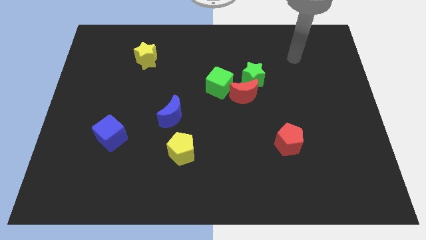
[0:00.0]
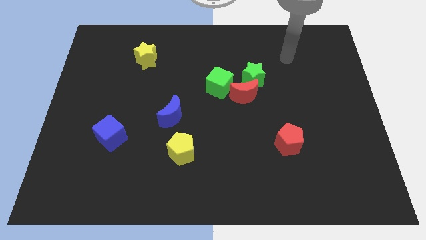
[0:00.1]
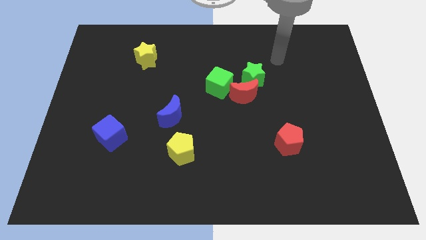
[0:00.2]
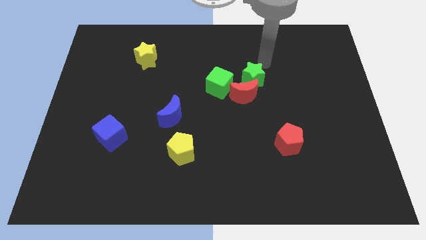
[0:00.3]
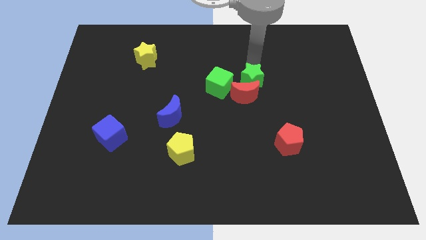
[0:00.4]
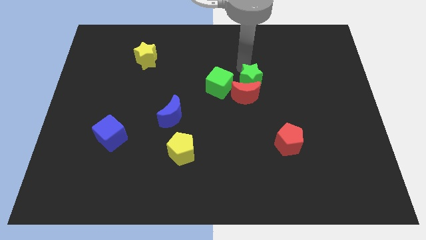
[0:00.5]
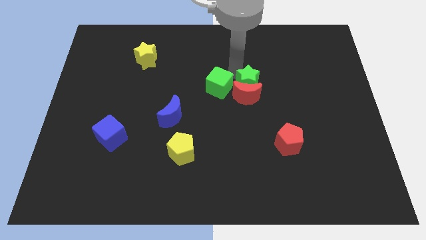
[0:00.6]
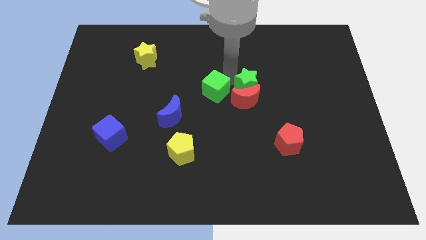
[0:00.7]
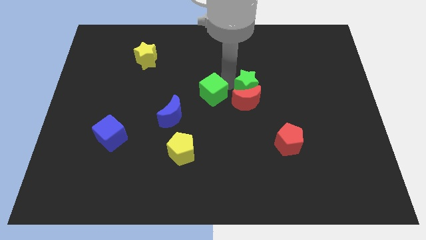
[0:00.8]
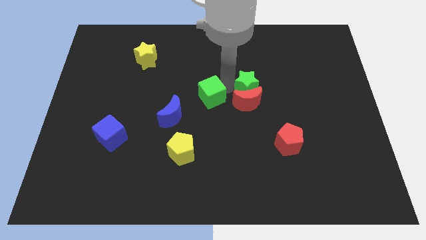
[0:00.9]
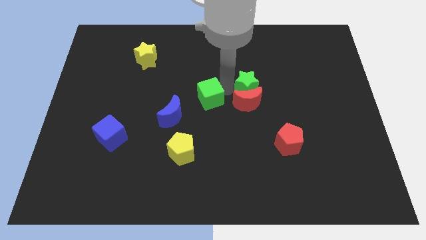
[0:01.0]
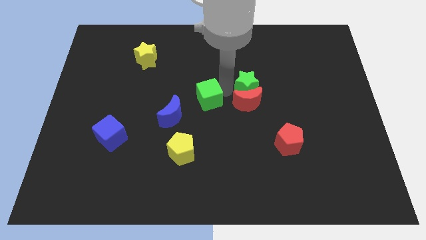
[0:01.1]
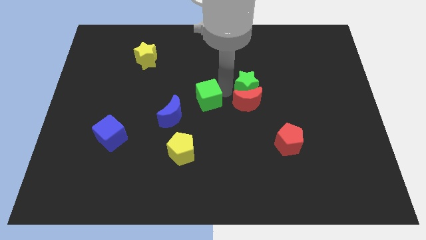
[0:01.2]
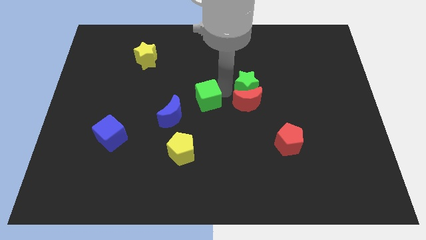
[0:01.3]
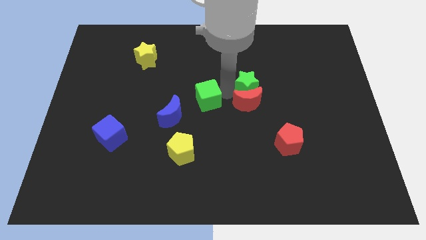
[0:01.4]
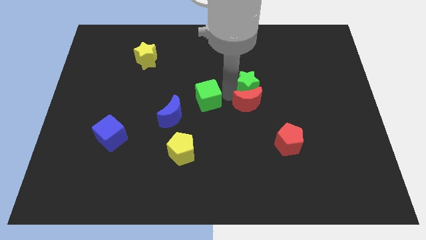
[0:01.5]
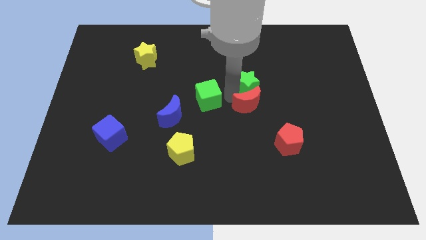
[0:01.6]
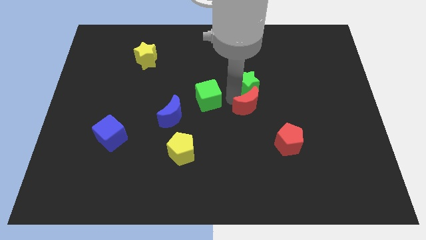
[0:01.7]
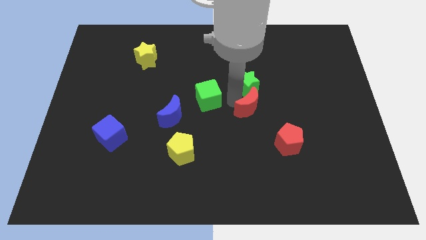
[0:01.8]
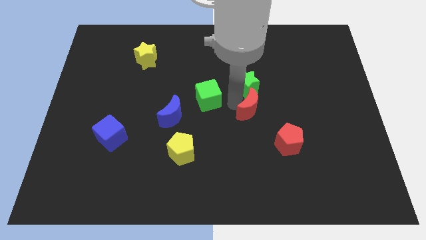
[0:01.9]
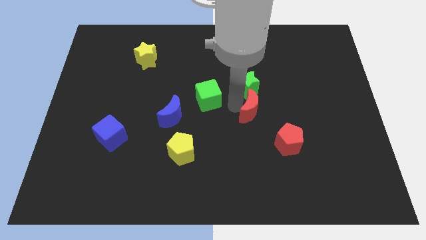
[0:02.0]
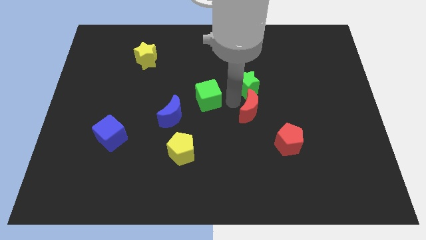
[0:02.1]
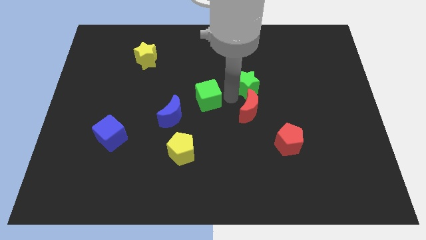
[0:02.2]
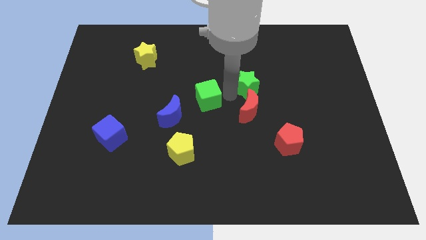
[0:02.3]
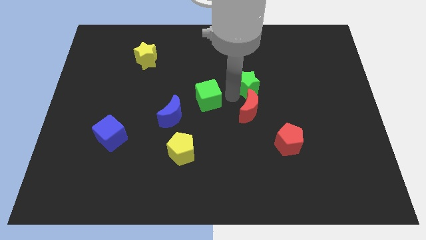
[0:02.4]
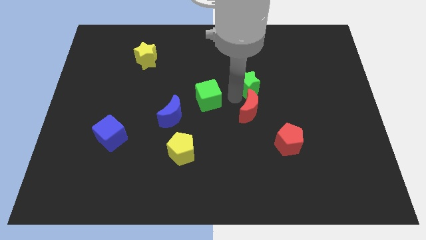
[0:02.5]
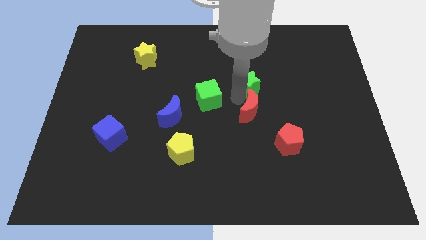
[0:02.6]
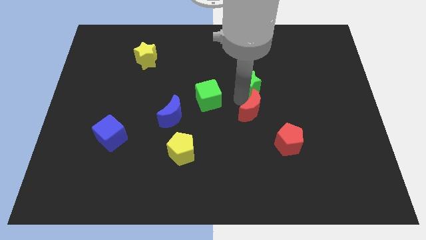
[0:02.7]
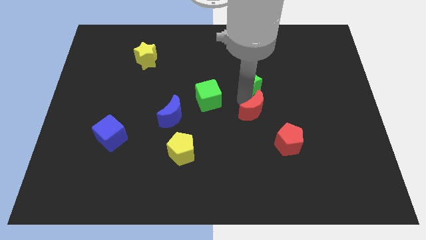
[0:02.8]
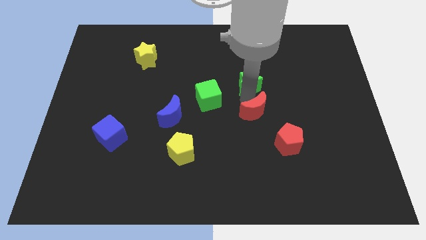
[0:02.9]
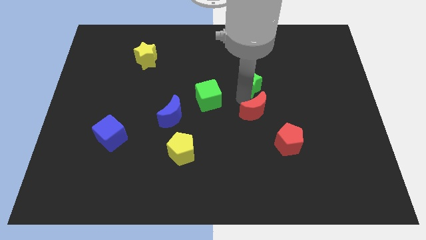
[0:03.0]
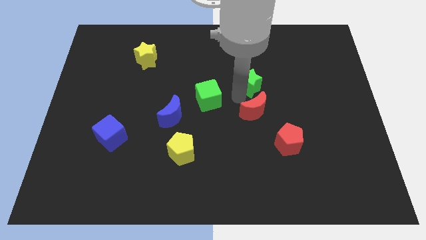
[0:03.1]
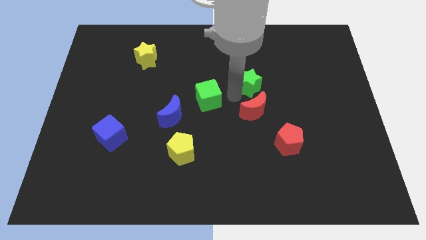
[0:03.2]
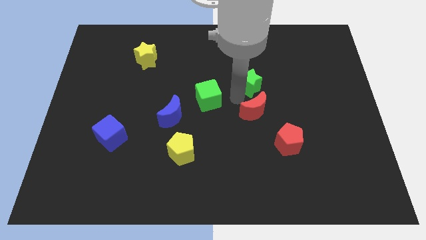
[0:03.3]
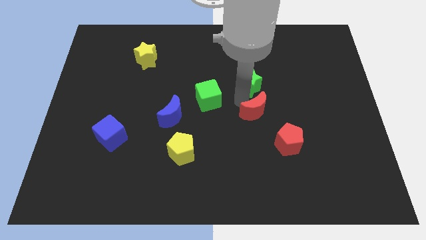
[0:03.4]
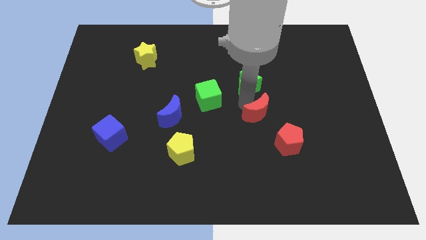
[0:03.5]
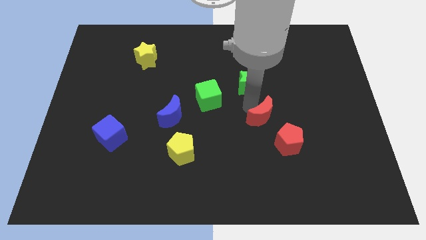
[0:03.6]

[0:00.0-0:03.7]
move the red moon away from the green star and green cube

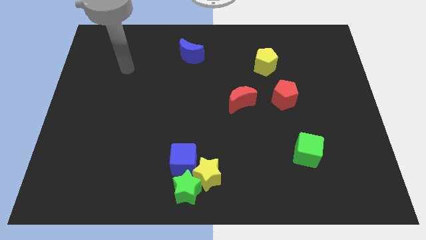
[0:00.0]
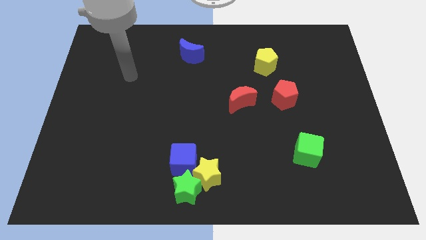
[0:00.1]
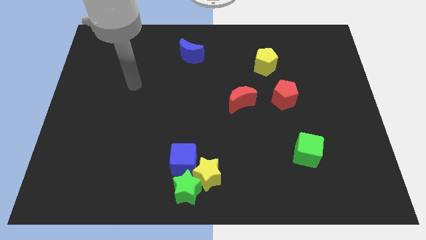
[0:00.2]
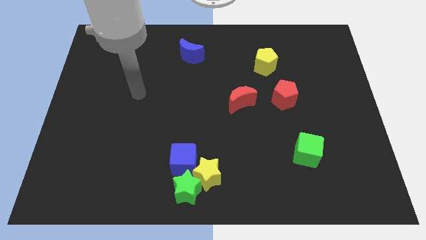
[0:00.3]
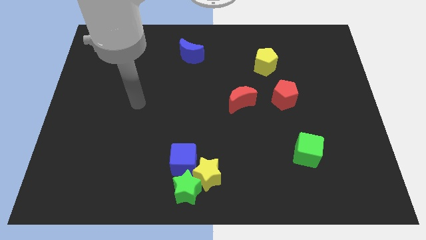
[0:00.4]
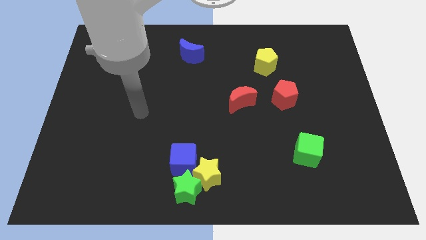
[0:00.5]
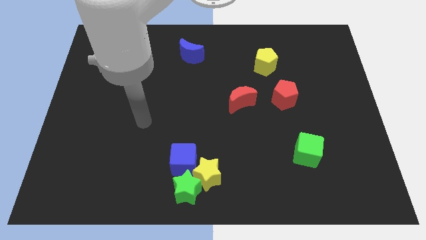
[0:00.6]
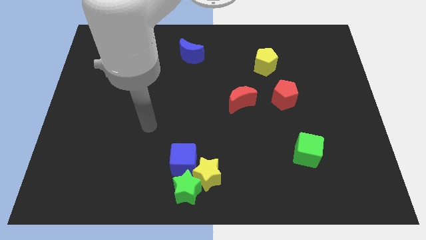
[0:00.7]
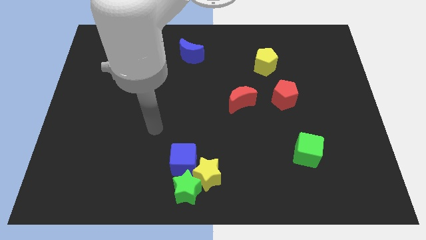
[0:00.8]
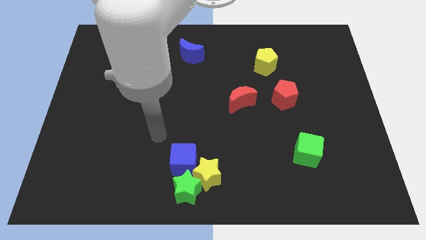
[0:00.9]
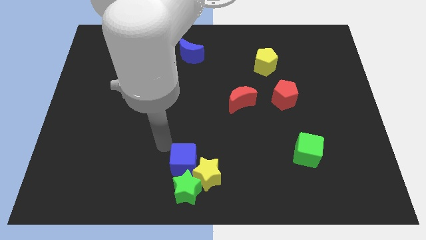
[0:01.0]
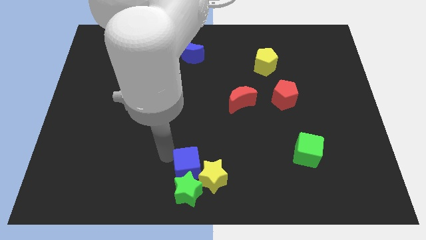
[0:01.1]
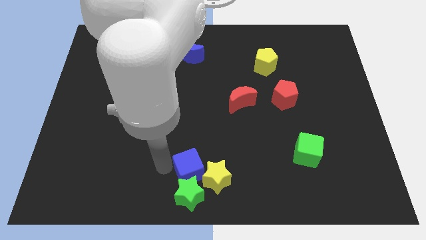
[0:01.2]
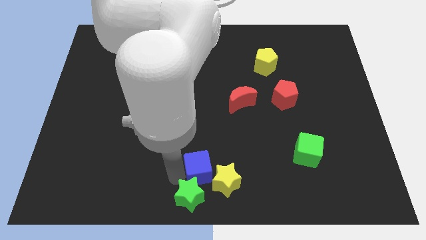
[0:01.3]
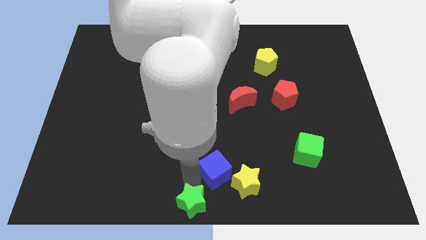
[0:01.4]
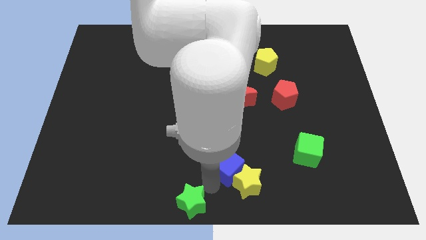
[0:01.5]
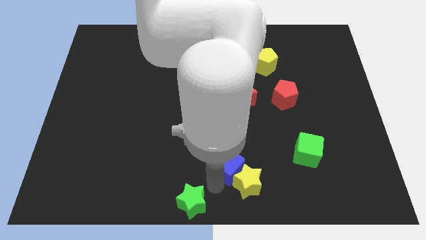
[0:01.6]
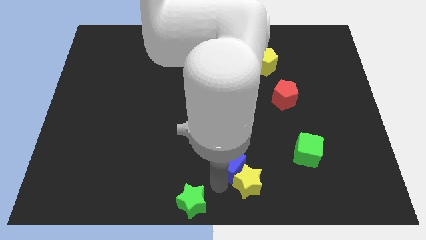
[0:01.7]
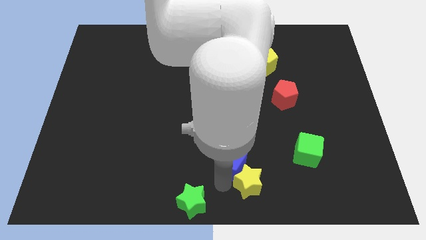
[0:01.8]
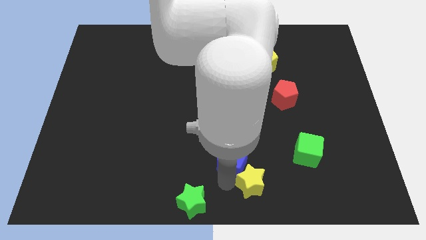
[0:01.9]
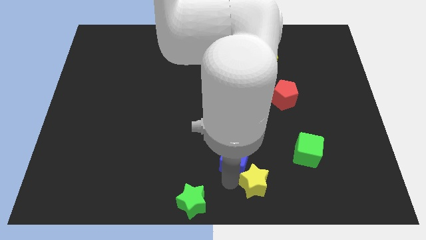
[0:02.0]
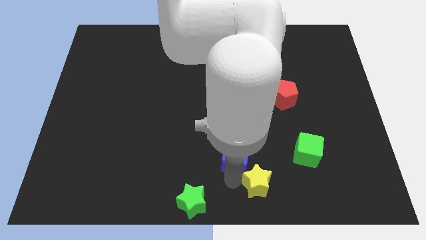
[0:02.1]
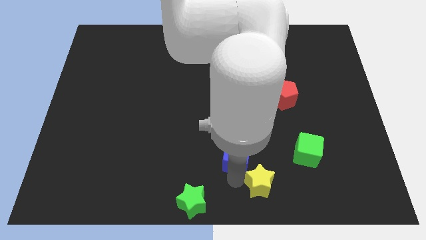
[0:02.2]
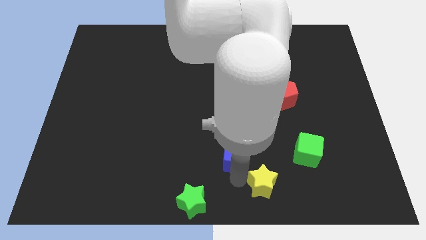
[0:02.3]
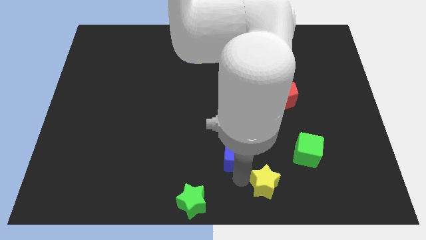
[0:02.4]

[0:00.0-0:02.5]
move the yellow star away from the green star and blue cube

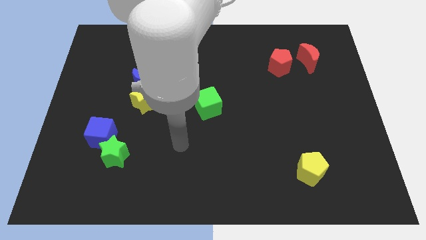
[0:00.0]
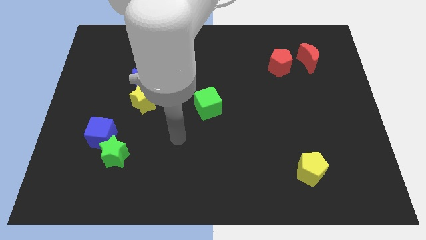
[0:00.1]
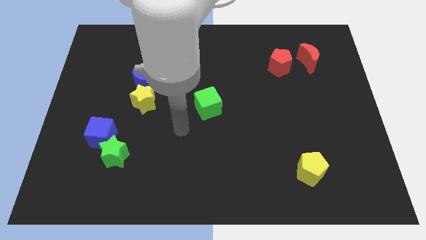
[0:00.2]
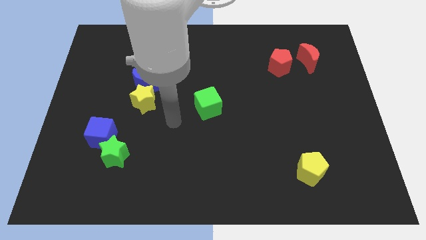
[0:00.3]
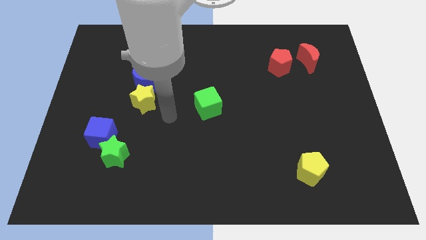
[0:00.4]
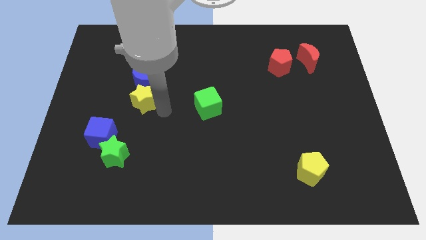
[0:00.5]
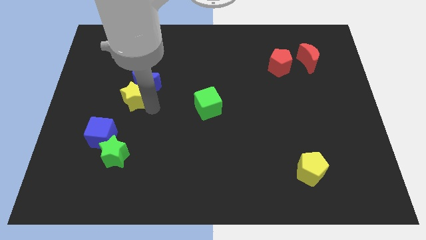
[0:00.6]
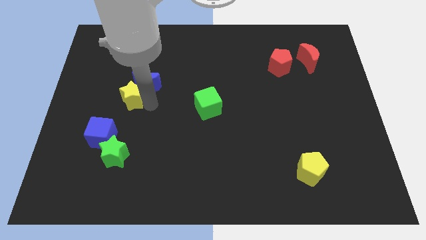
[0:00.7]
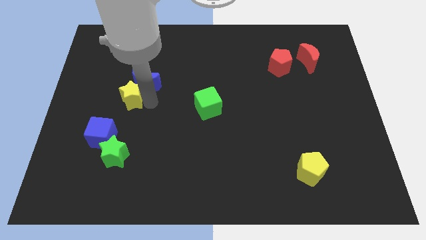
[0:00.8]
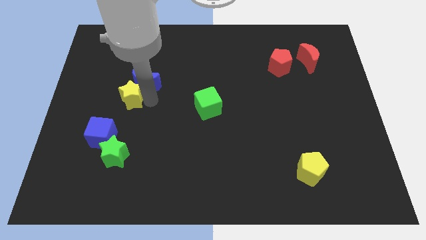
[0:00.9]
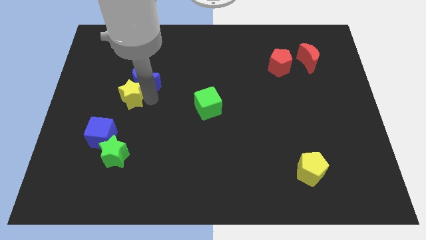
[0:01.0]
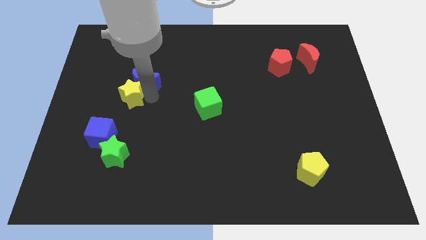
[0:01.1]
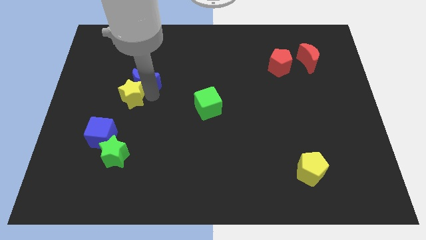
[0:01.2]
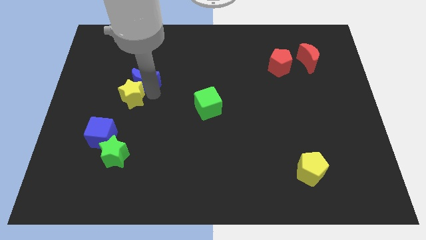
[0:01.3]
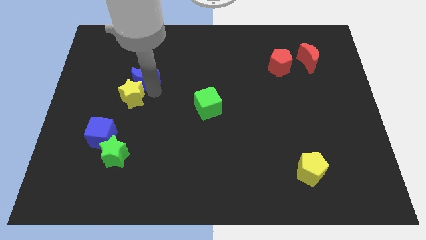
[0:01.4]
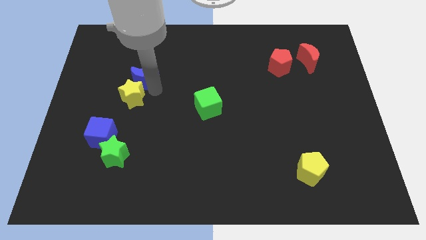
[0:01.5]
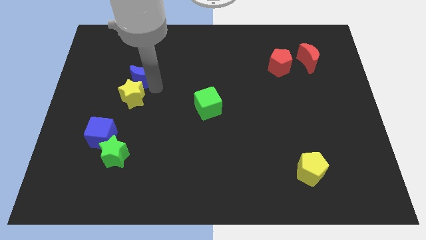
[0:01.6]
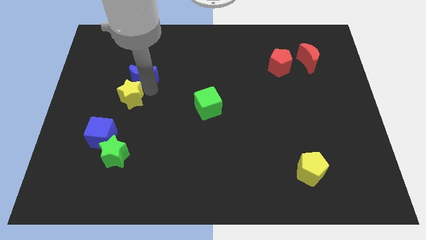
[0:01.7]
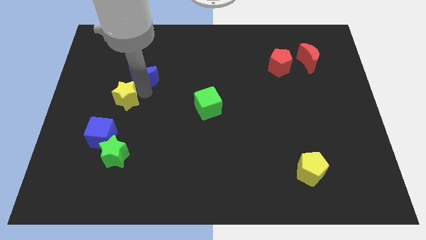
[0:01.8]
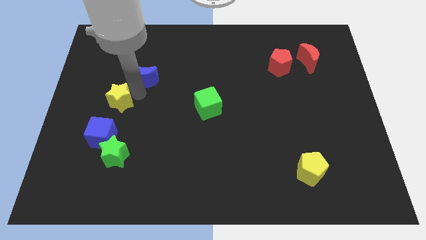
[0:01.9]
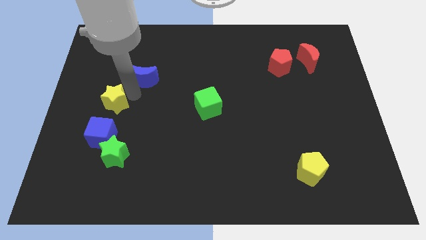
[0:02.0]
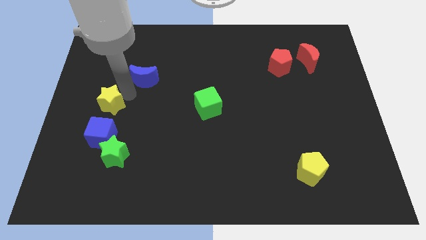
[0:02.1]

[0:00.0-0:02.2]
pull the blue moon apart from the yellow star

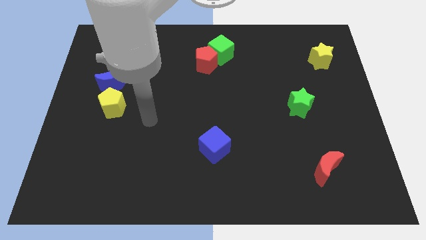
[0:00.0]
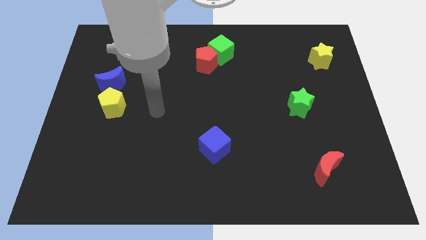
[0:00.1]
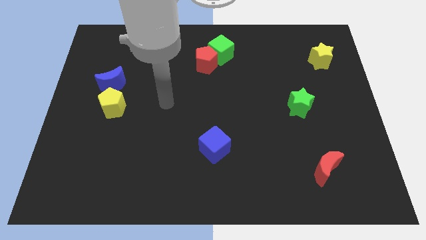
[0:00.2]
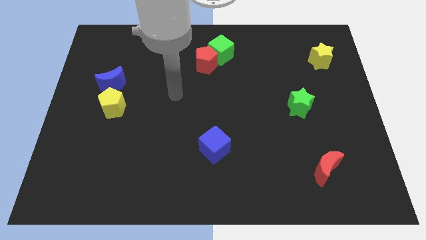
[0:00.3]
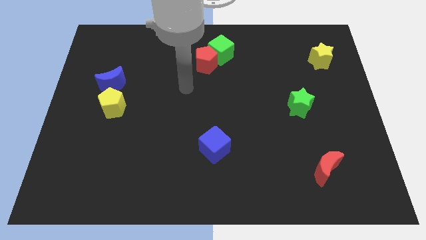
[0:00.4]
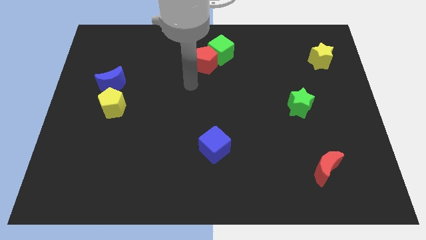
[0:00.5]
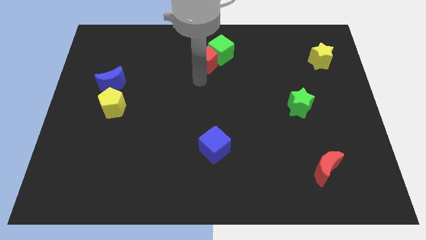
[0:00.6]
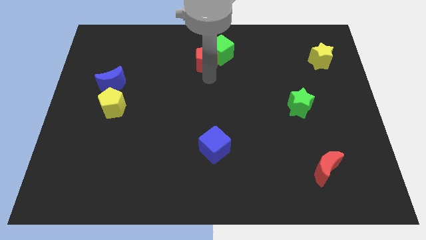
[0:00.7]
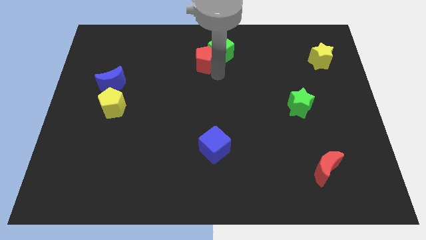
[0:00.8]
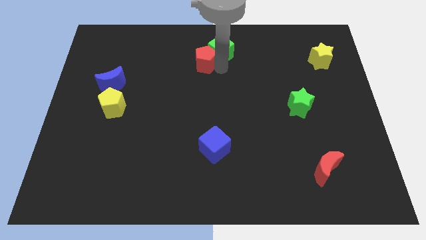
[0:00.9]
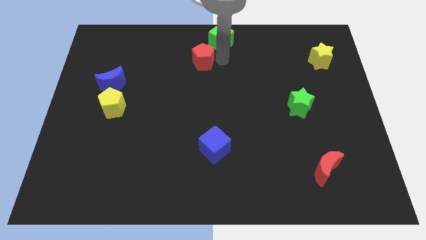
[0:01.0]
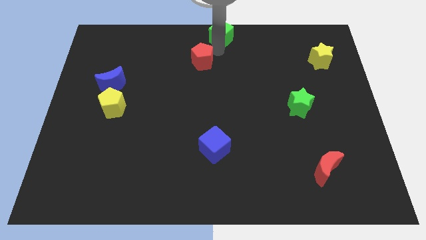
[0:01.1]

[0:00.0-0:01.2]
pull the red pentagon apart from the green cube
